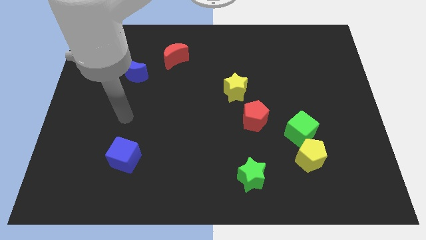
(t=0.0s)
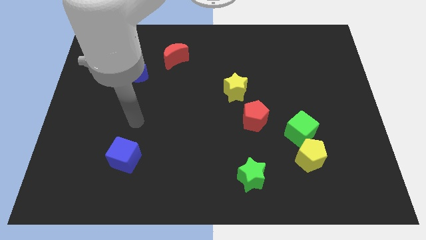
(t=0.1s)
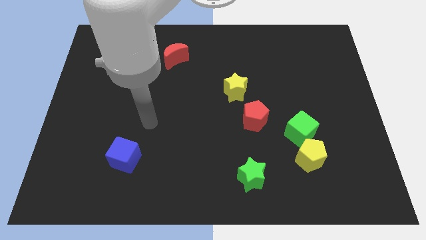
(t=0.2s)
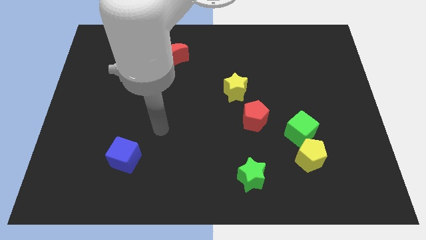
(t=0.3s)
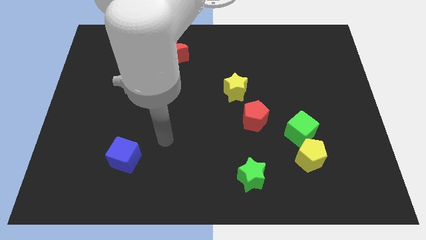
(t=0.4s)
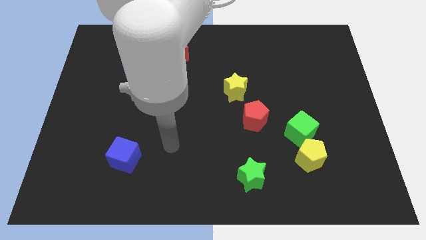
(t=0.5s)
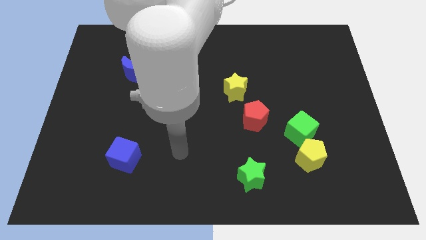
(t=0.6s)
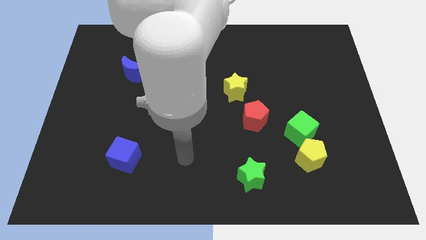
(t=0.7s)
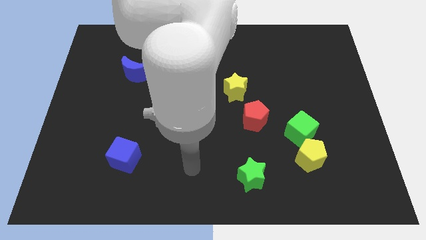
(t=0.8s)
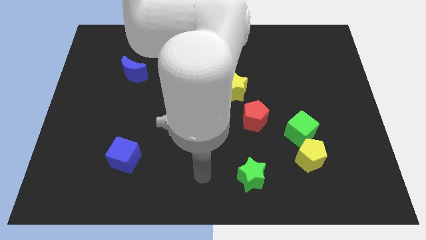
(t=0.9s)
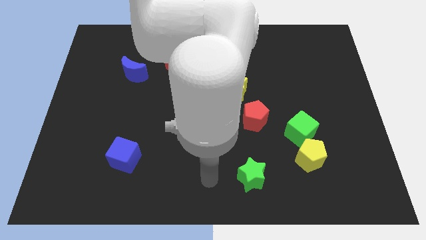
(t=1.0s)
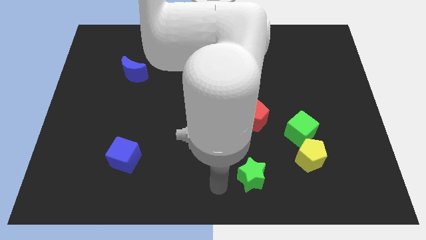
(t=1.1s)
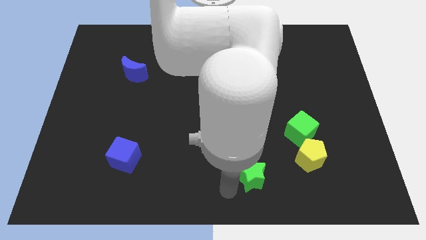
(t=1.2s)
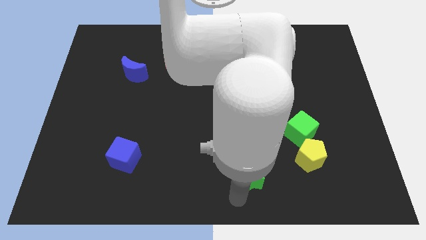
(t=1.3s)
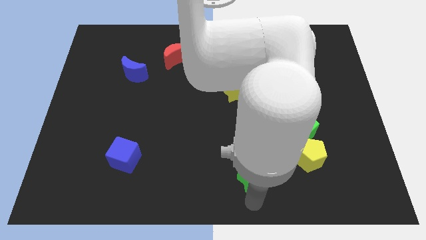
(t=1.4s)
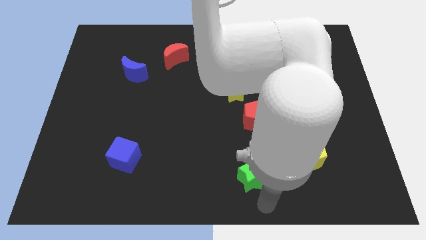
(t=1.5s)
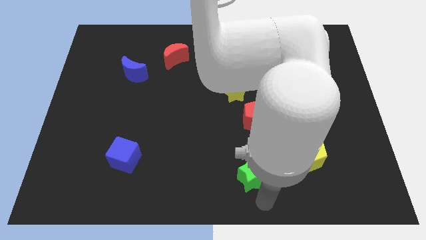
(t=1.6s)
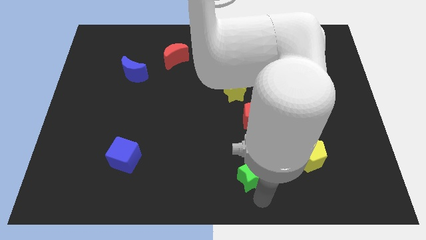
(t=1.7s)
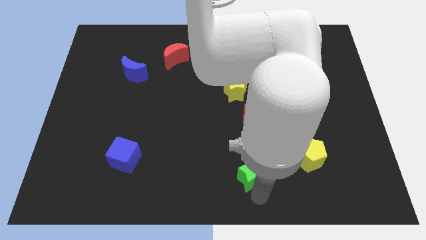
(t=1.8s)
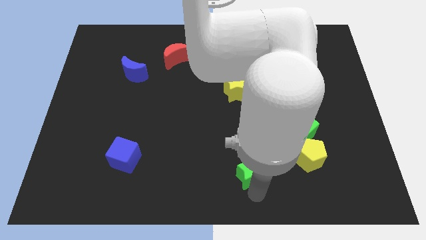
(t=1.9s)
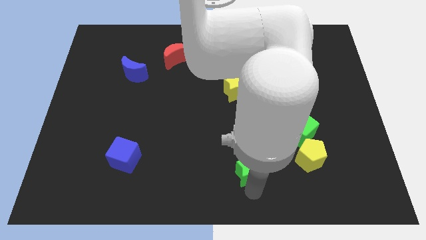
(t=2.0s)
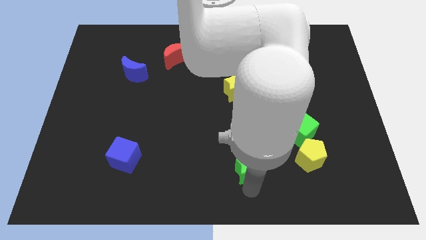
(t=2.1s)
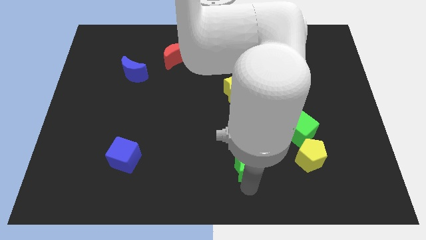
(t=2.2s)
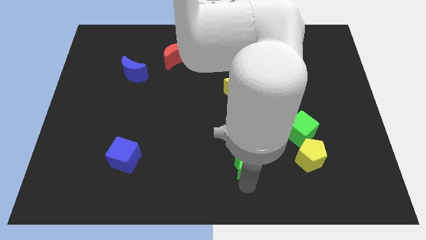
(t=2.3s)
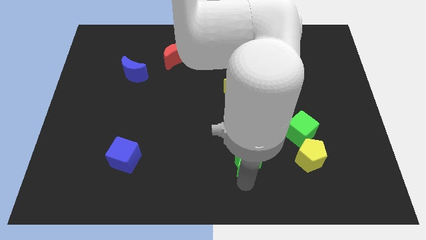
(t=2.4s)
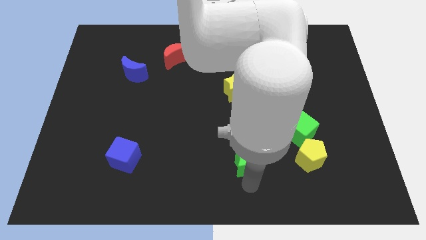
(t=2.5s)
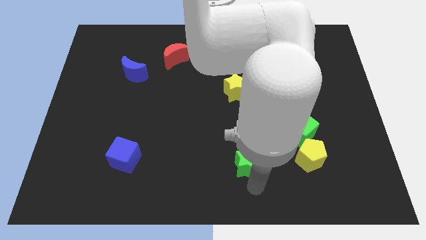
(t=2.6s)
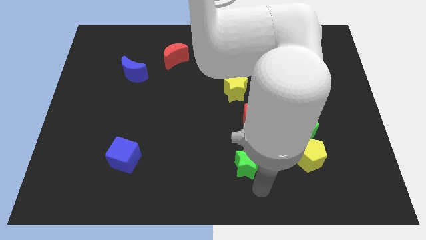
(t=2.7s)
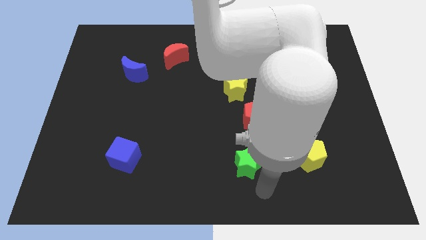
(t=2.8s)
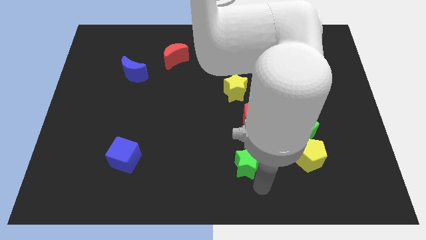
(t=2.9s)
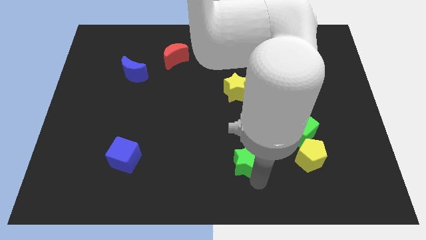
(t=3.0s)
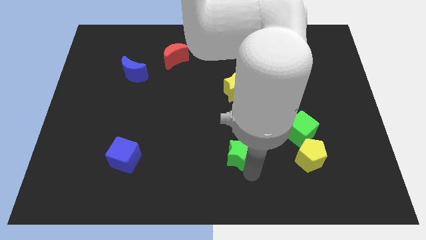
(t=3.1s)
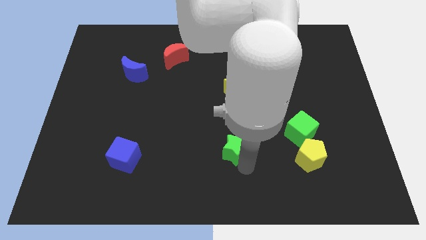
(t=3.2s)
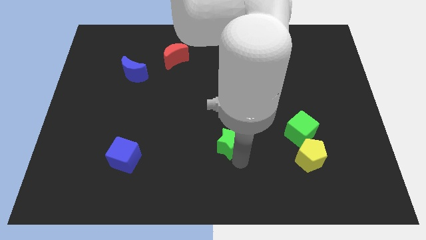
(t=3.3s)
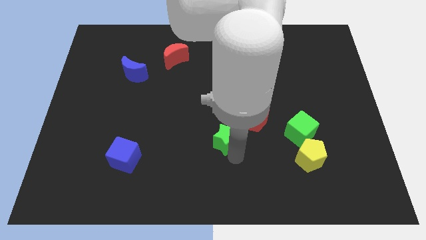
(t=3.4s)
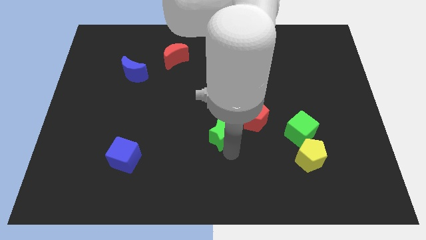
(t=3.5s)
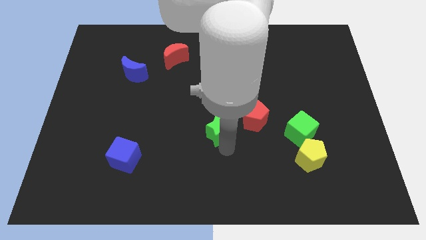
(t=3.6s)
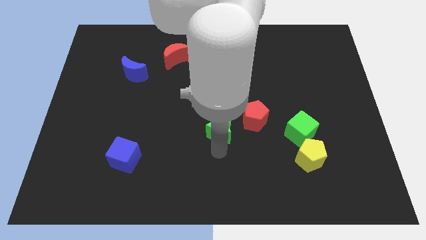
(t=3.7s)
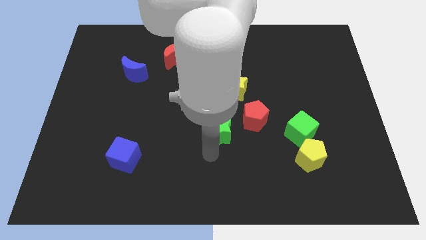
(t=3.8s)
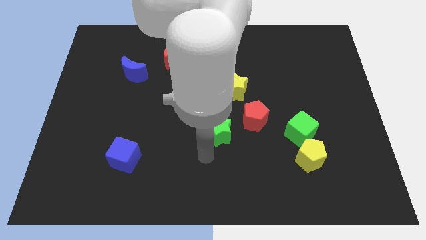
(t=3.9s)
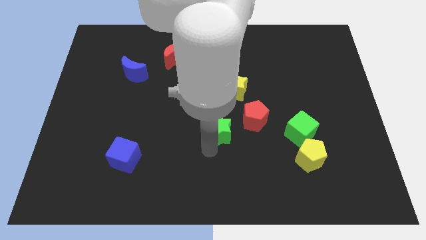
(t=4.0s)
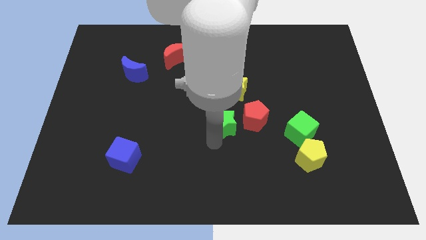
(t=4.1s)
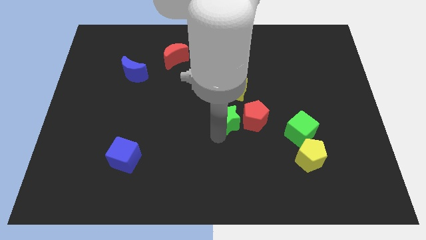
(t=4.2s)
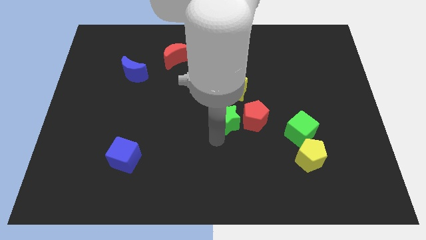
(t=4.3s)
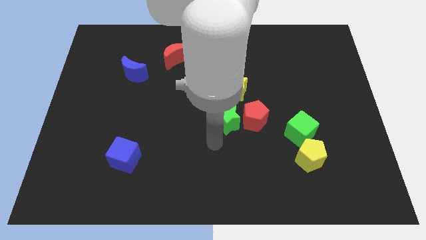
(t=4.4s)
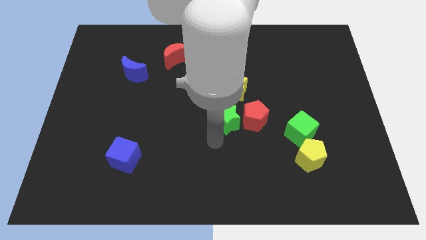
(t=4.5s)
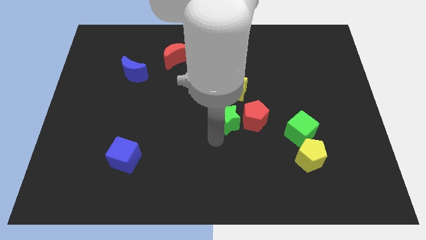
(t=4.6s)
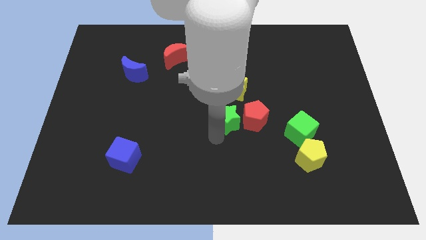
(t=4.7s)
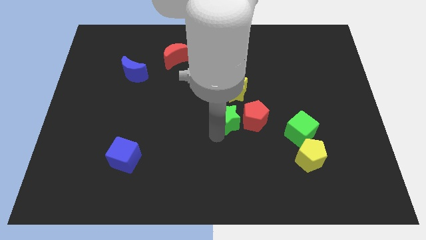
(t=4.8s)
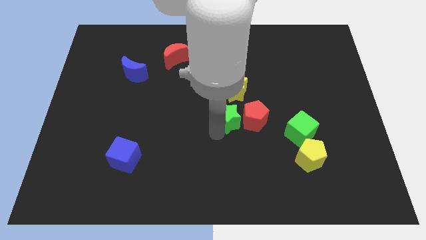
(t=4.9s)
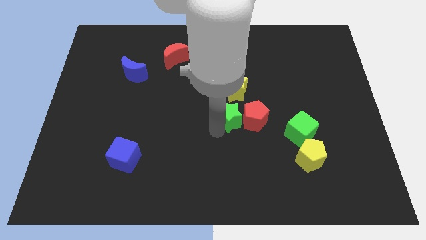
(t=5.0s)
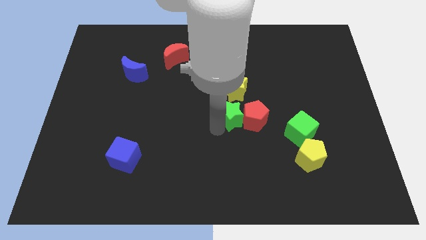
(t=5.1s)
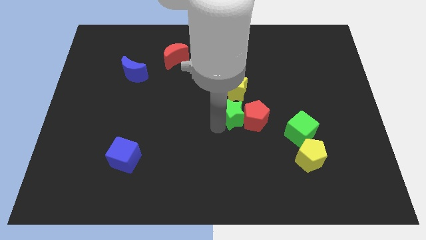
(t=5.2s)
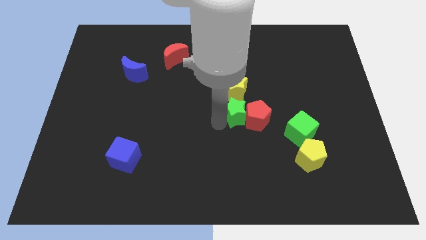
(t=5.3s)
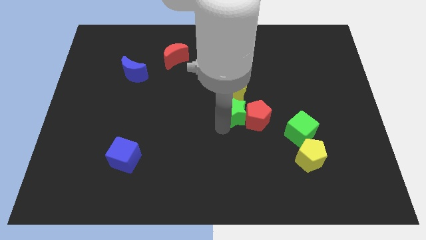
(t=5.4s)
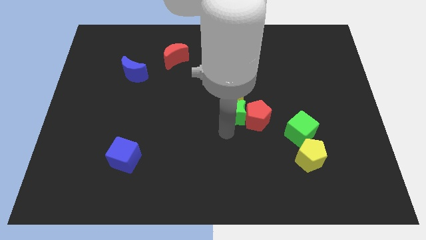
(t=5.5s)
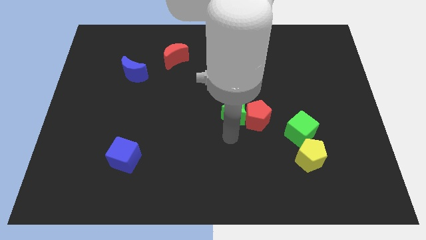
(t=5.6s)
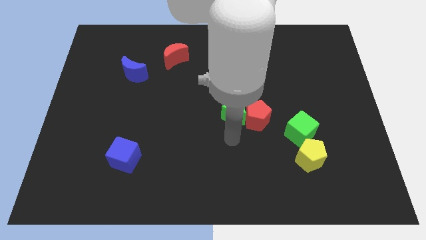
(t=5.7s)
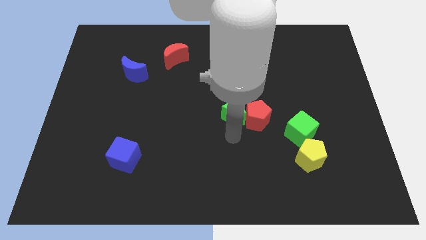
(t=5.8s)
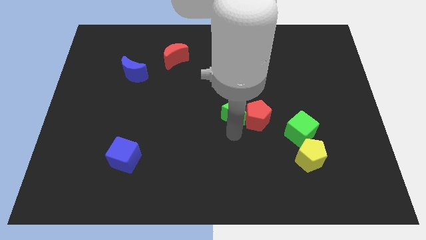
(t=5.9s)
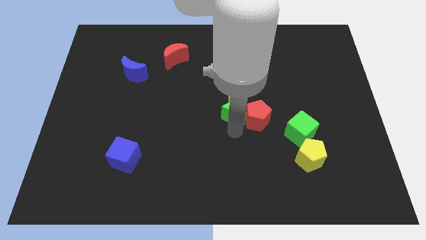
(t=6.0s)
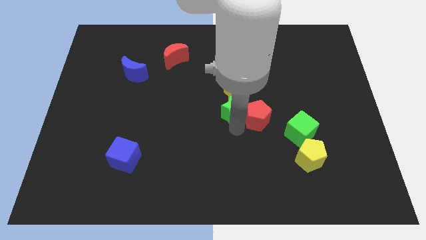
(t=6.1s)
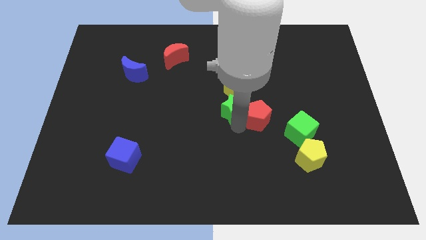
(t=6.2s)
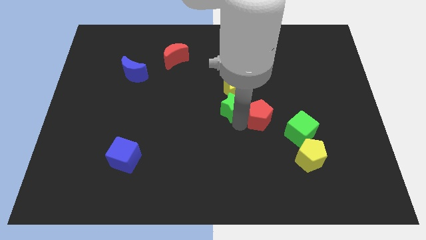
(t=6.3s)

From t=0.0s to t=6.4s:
put the green star to the yellow star

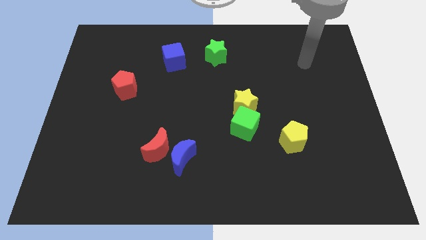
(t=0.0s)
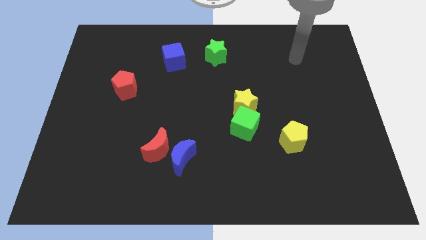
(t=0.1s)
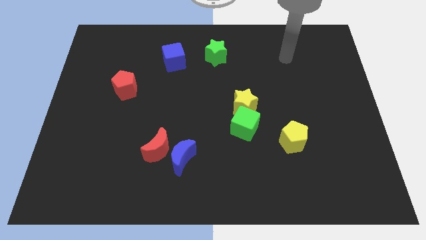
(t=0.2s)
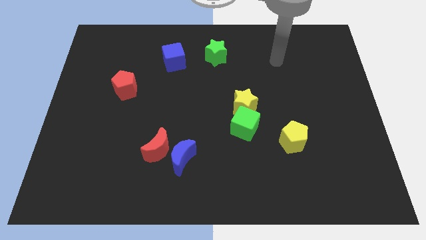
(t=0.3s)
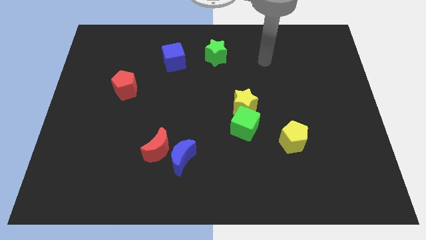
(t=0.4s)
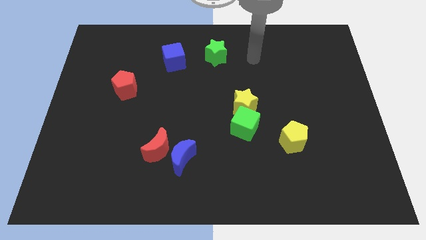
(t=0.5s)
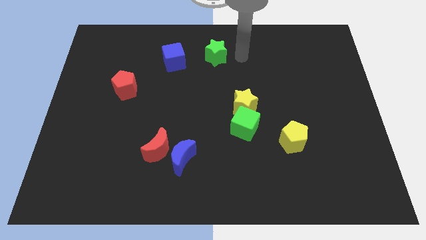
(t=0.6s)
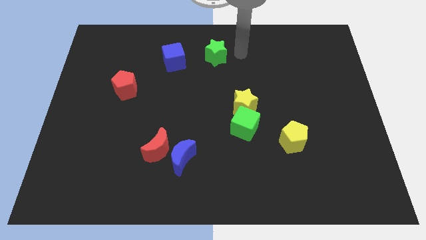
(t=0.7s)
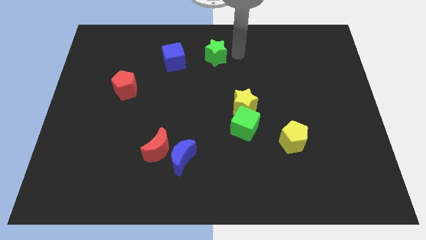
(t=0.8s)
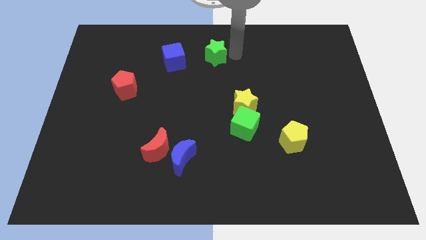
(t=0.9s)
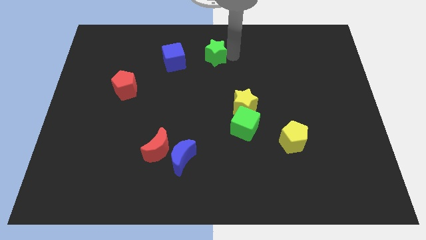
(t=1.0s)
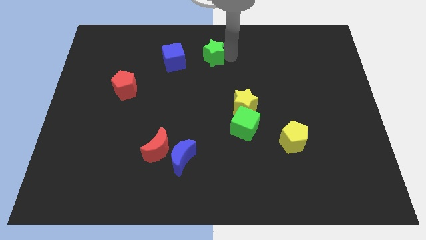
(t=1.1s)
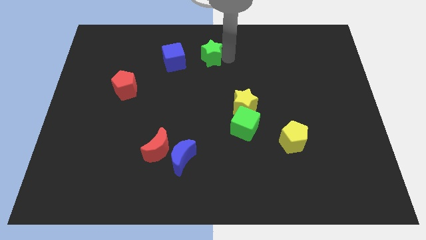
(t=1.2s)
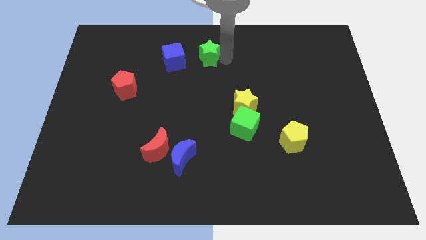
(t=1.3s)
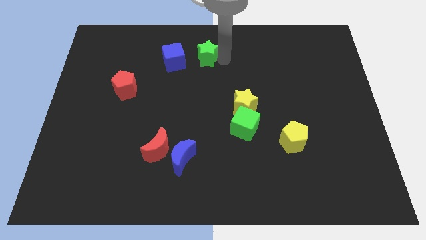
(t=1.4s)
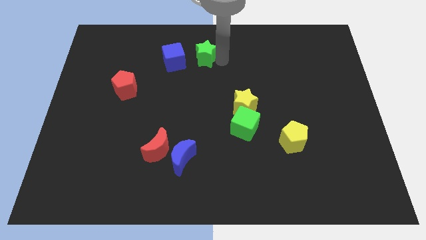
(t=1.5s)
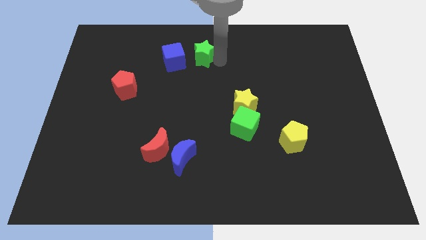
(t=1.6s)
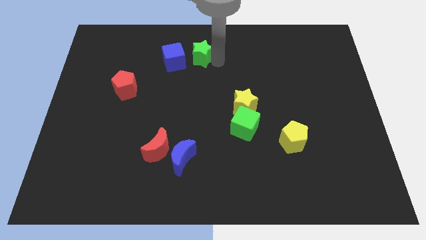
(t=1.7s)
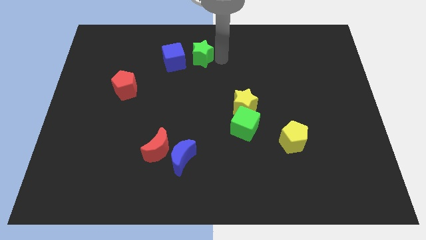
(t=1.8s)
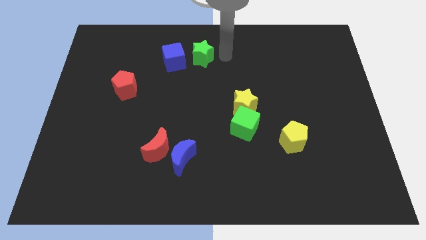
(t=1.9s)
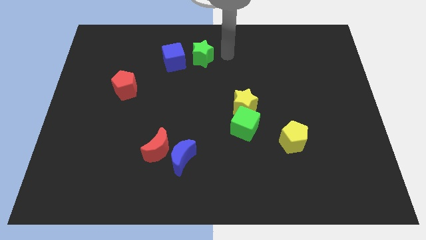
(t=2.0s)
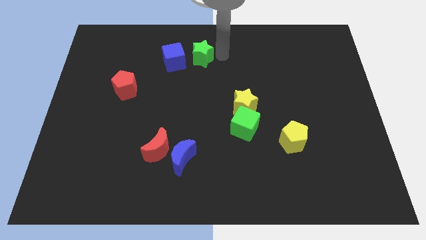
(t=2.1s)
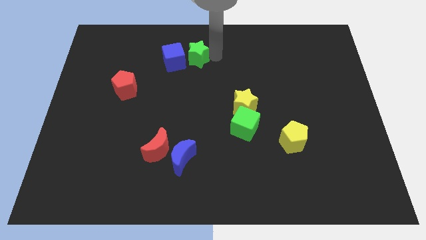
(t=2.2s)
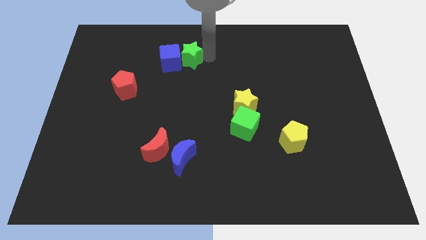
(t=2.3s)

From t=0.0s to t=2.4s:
move the green star to the blue cube
